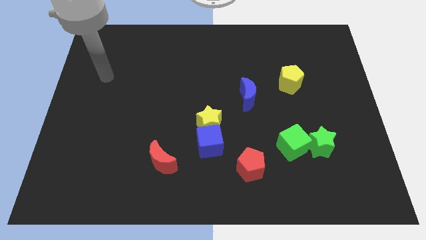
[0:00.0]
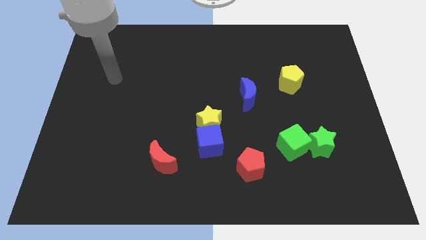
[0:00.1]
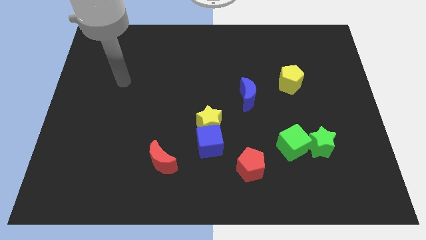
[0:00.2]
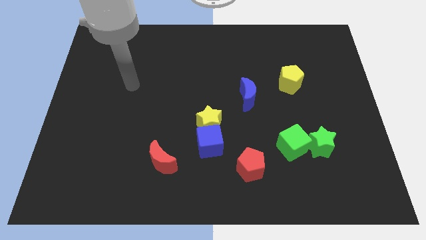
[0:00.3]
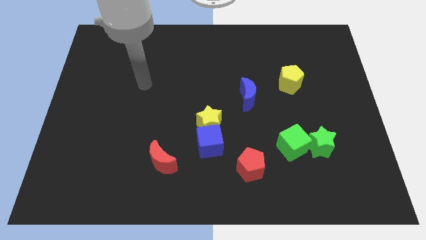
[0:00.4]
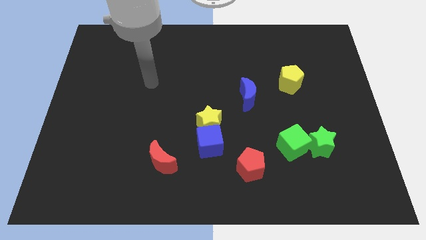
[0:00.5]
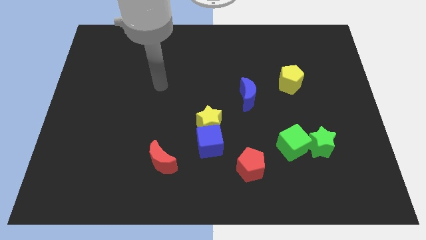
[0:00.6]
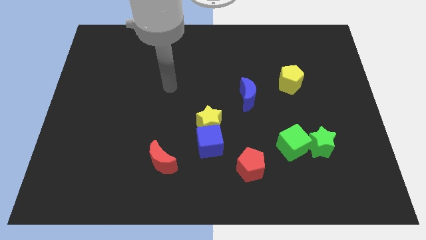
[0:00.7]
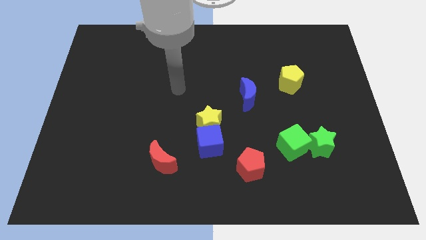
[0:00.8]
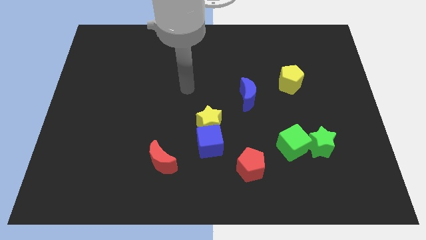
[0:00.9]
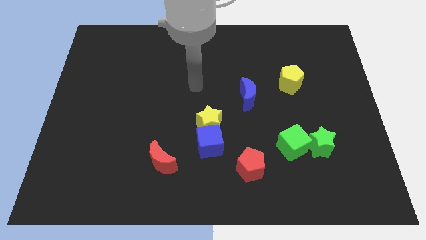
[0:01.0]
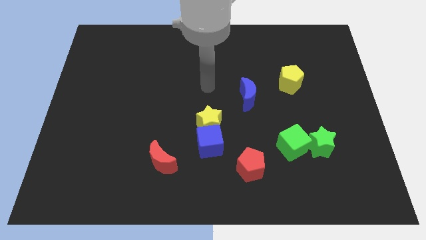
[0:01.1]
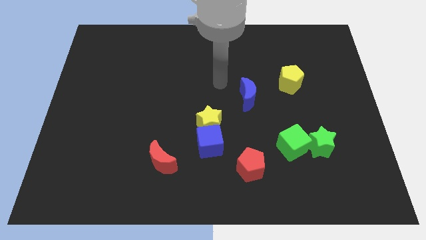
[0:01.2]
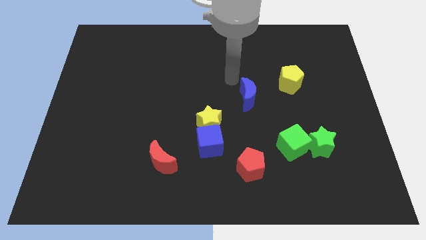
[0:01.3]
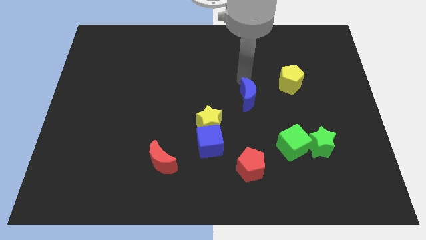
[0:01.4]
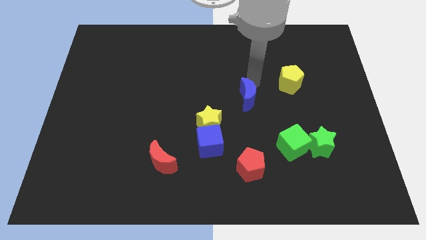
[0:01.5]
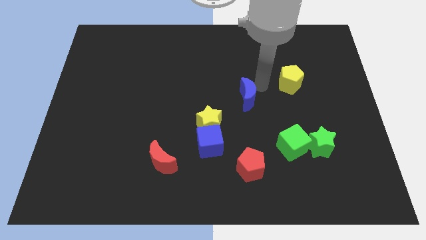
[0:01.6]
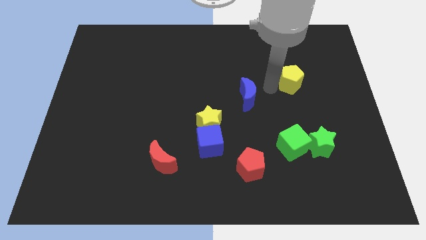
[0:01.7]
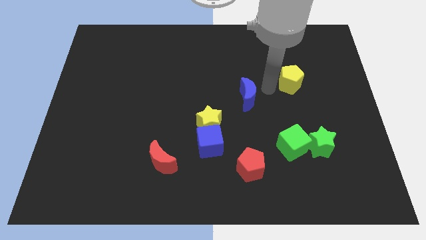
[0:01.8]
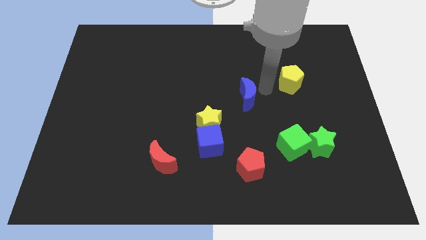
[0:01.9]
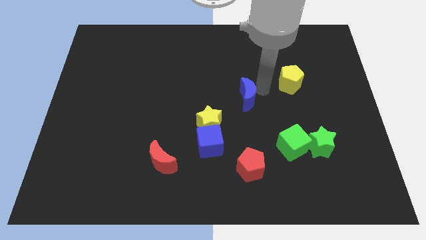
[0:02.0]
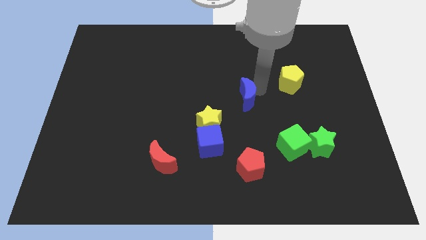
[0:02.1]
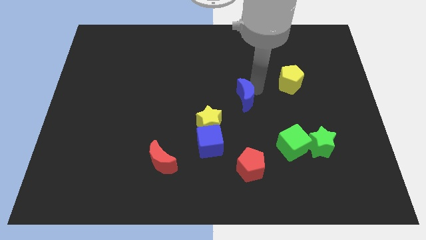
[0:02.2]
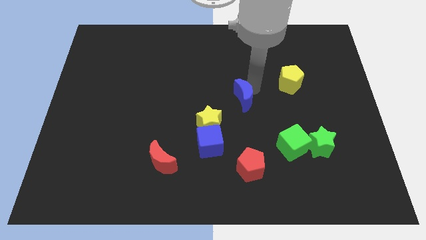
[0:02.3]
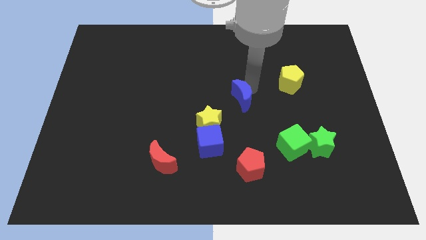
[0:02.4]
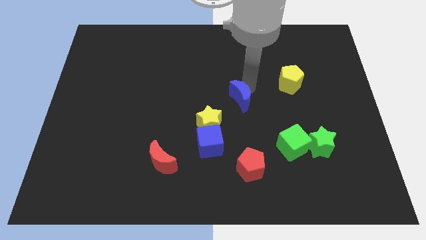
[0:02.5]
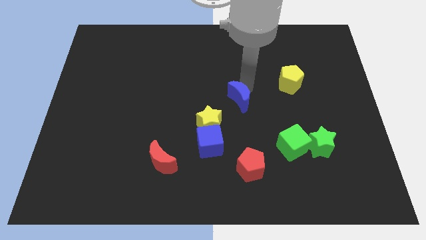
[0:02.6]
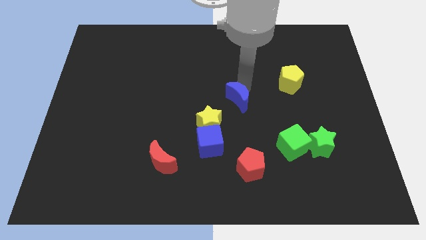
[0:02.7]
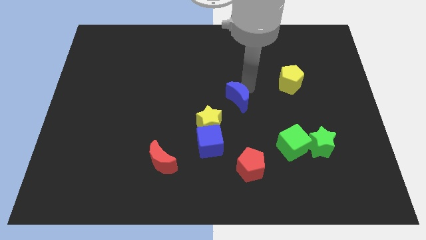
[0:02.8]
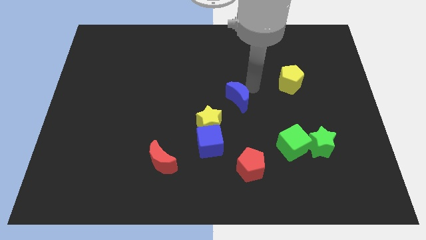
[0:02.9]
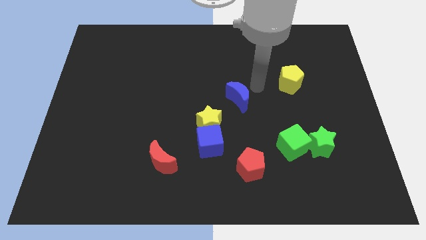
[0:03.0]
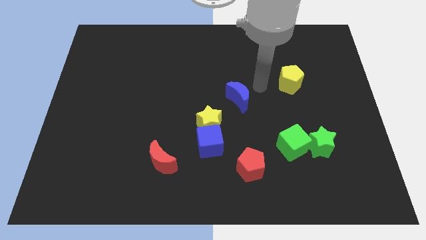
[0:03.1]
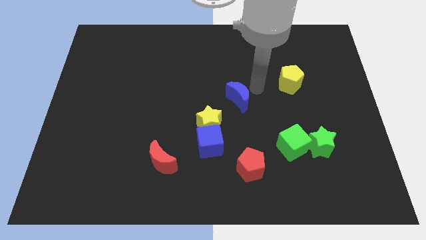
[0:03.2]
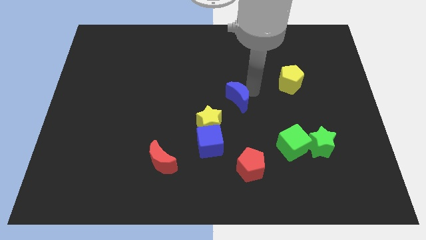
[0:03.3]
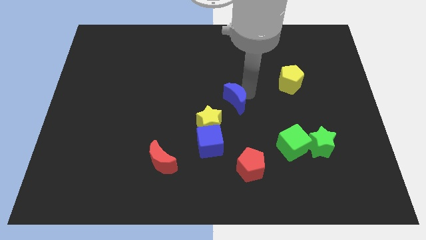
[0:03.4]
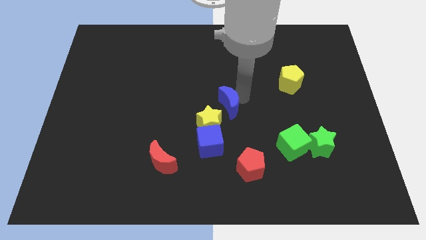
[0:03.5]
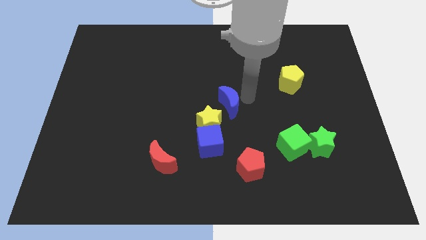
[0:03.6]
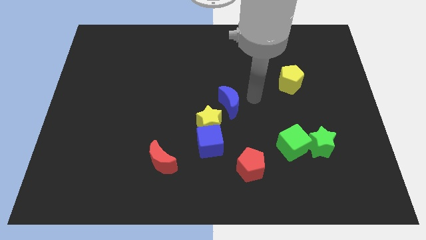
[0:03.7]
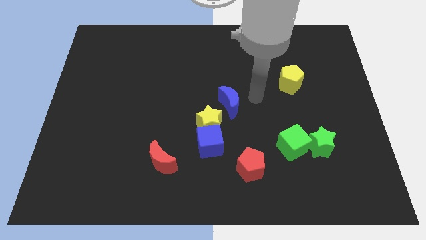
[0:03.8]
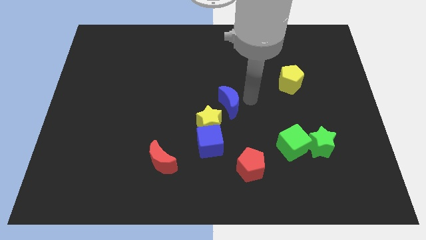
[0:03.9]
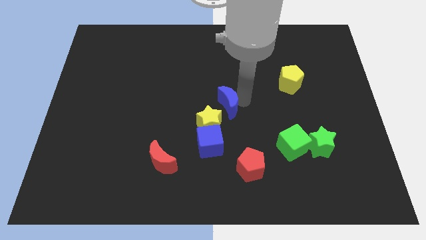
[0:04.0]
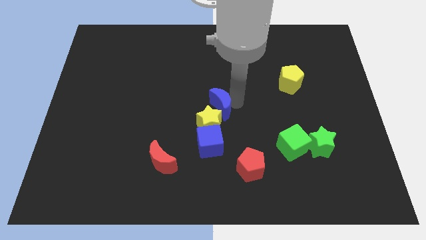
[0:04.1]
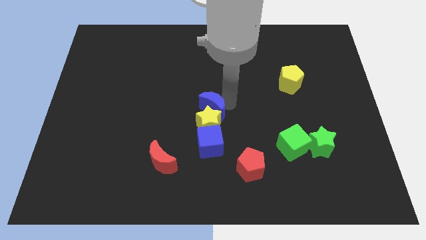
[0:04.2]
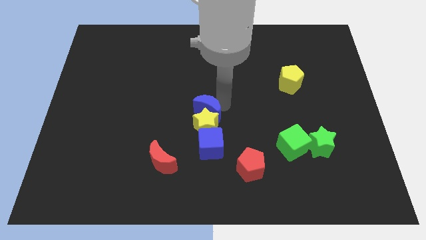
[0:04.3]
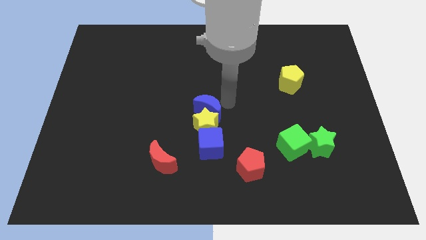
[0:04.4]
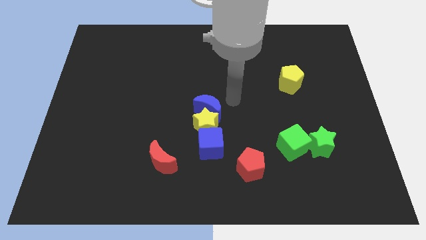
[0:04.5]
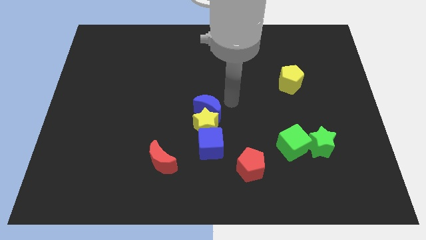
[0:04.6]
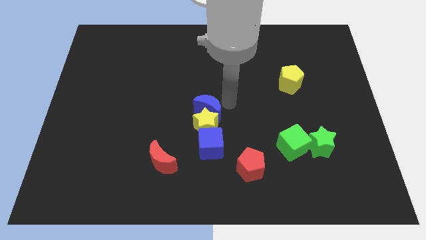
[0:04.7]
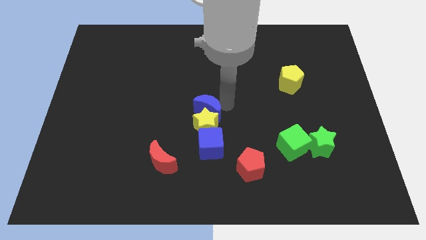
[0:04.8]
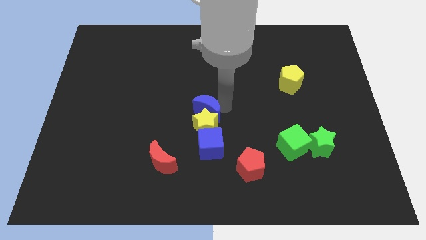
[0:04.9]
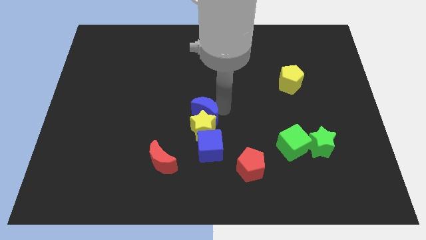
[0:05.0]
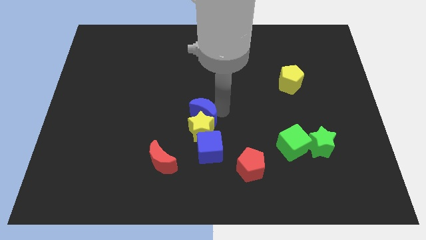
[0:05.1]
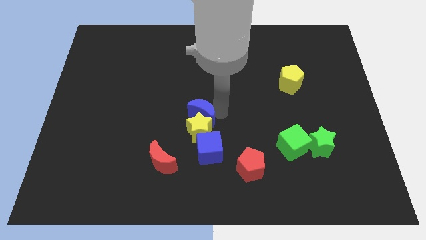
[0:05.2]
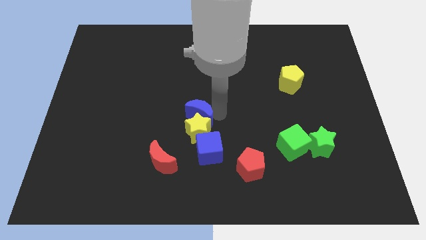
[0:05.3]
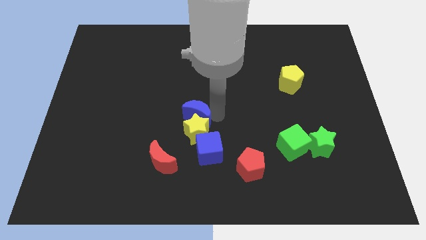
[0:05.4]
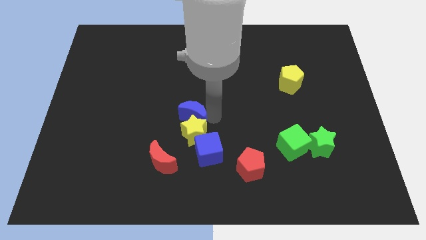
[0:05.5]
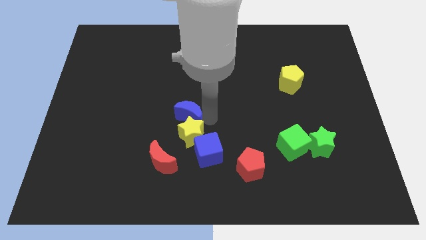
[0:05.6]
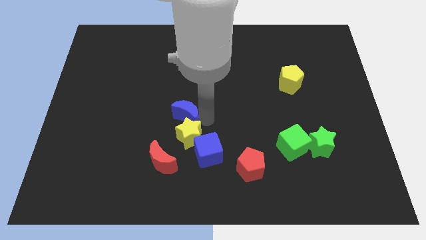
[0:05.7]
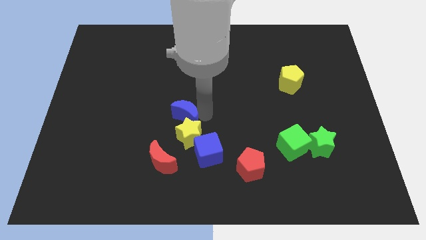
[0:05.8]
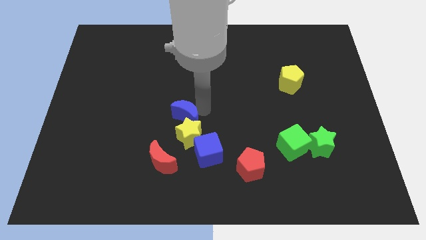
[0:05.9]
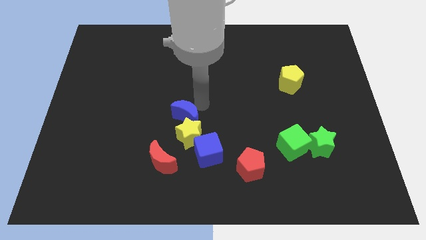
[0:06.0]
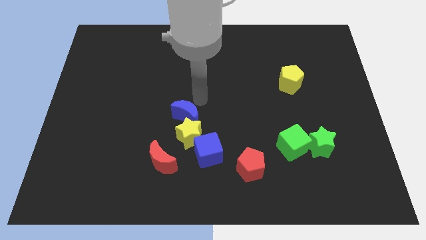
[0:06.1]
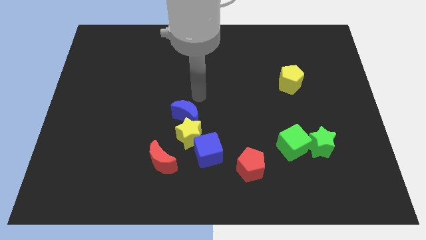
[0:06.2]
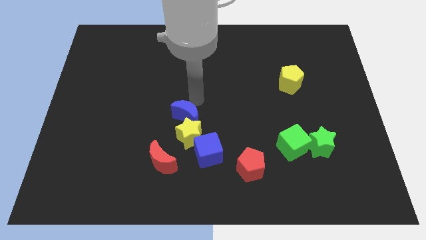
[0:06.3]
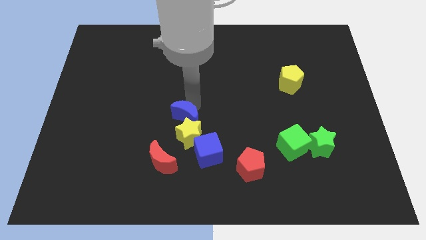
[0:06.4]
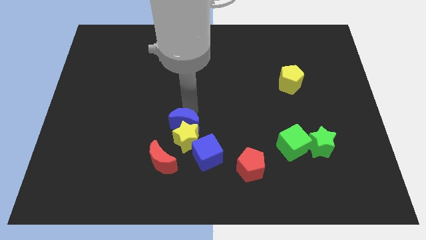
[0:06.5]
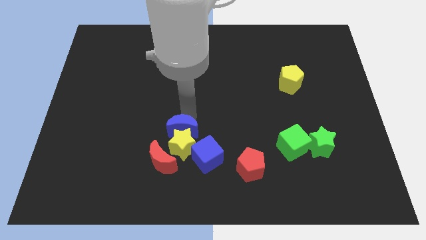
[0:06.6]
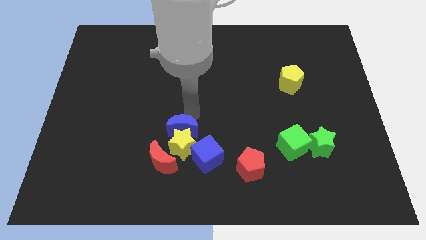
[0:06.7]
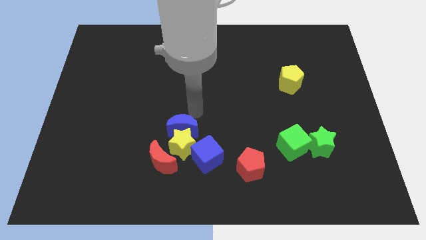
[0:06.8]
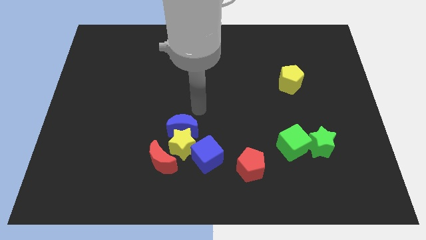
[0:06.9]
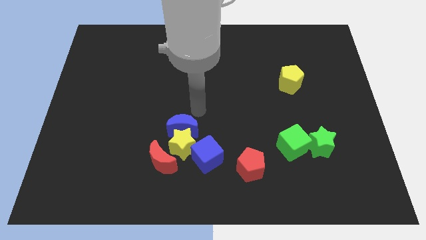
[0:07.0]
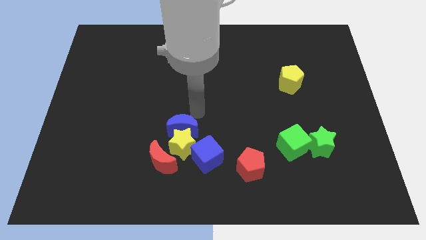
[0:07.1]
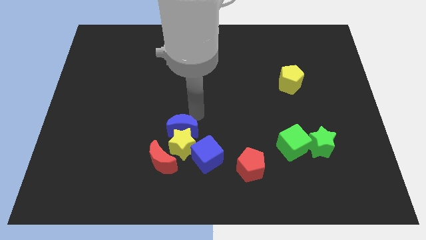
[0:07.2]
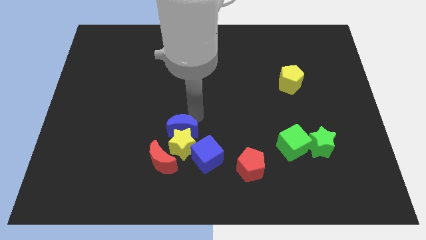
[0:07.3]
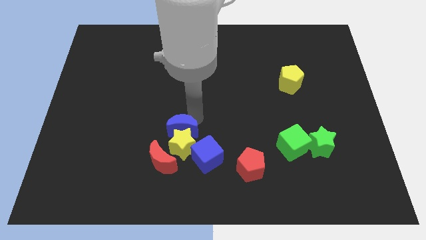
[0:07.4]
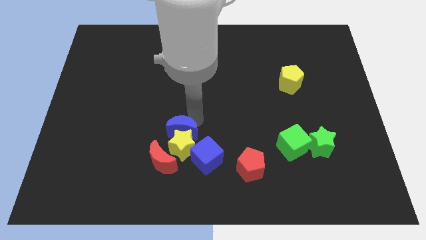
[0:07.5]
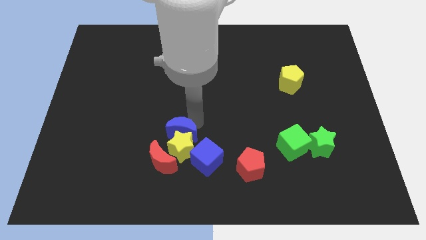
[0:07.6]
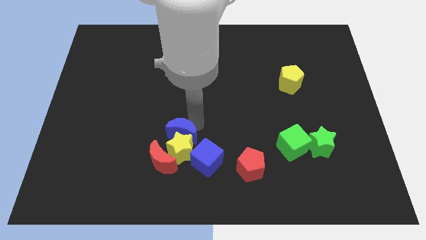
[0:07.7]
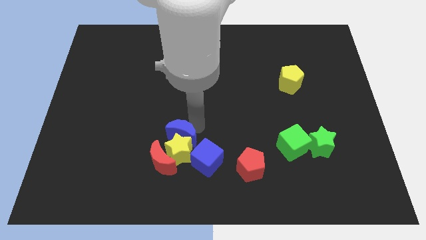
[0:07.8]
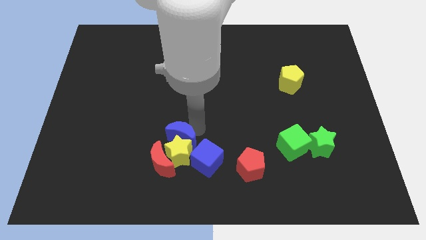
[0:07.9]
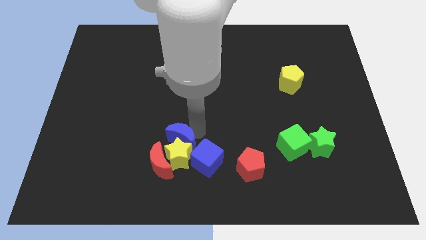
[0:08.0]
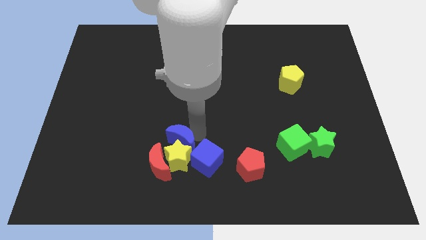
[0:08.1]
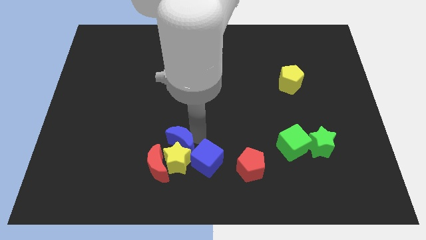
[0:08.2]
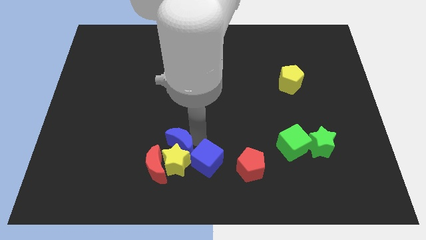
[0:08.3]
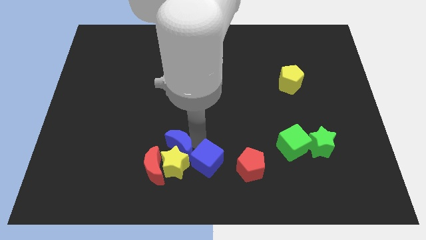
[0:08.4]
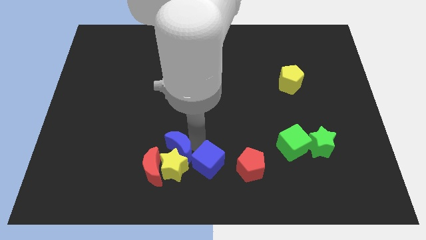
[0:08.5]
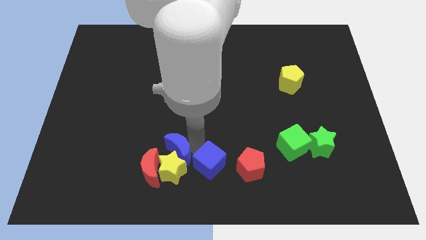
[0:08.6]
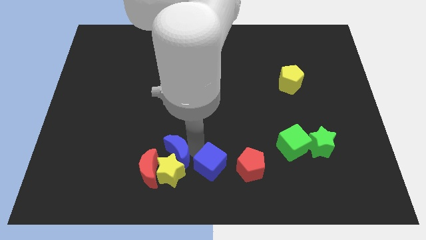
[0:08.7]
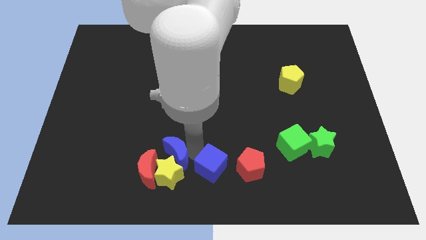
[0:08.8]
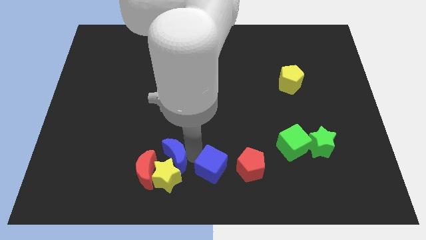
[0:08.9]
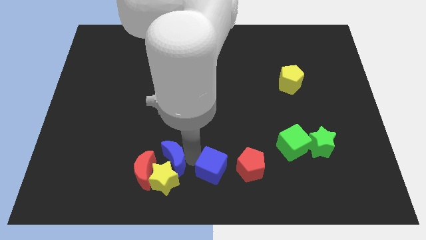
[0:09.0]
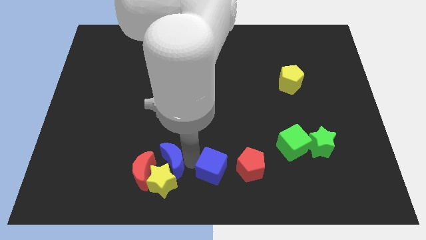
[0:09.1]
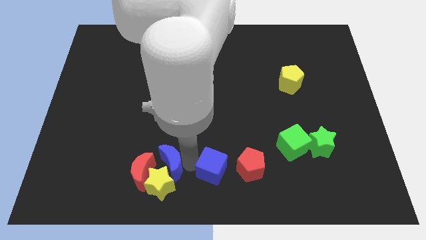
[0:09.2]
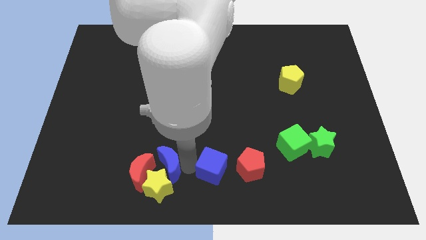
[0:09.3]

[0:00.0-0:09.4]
put the blue moon to the red moon
